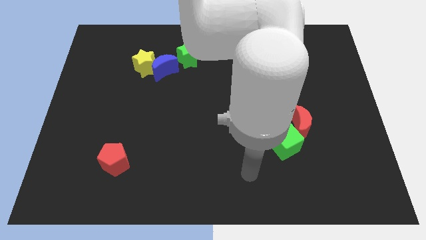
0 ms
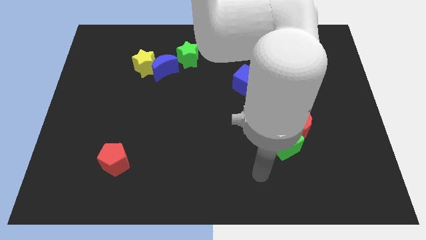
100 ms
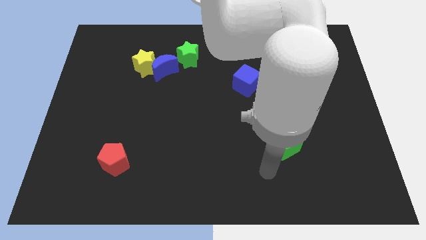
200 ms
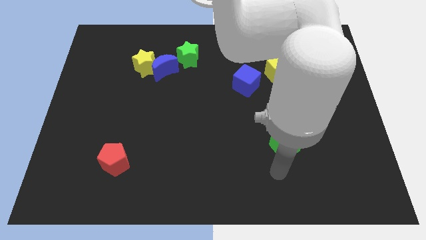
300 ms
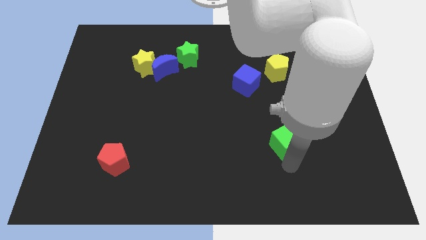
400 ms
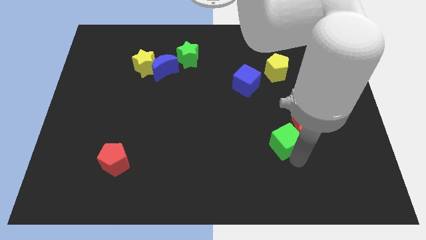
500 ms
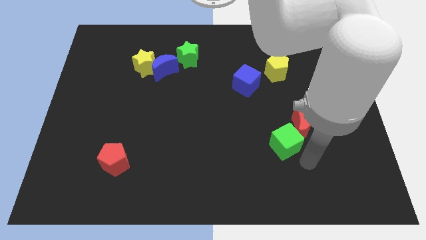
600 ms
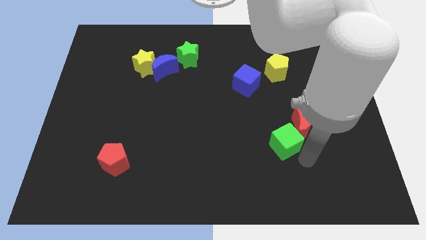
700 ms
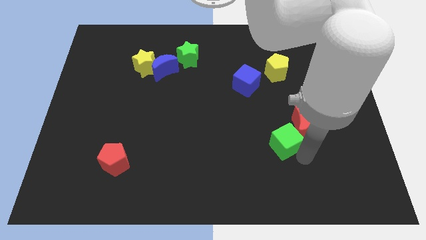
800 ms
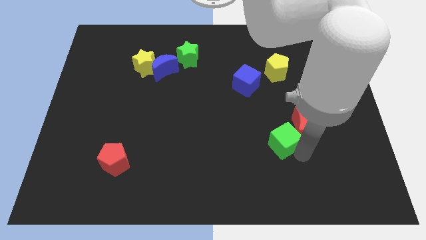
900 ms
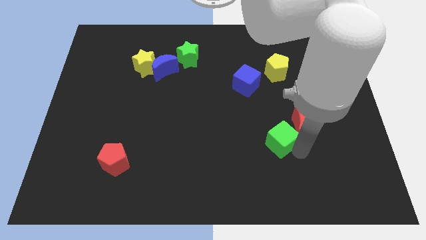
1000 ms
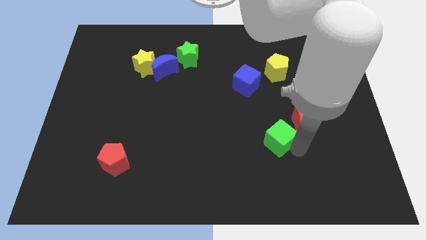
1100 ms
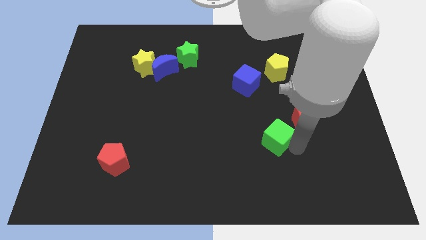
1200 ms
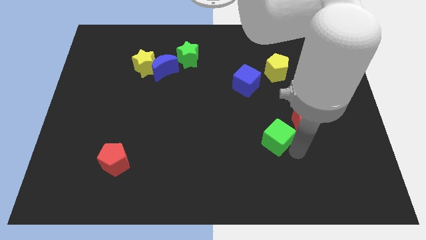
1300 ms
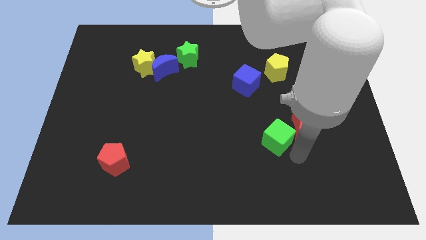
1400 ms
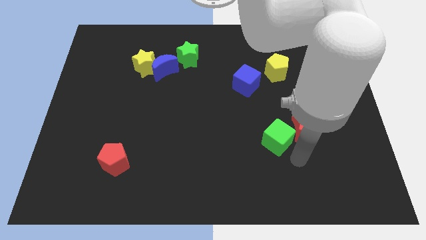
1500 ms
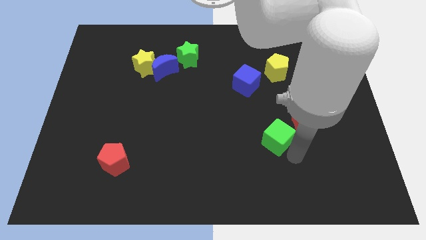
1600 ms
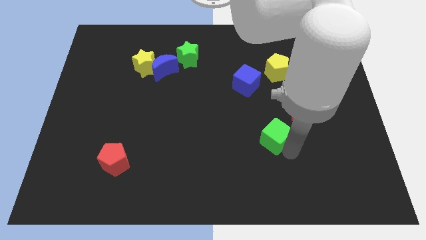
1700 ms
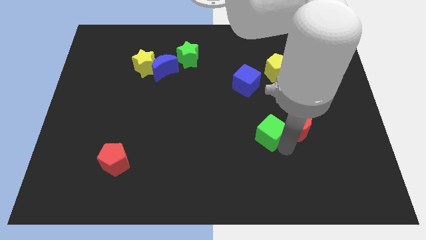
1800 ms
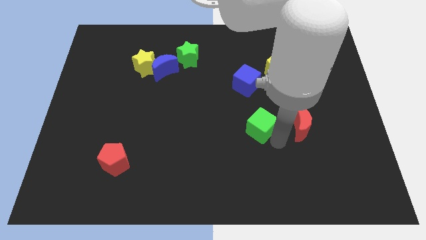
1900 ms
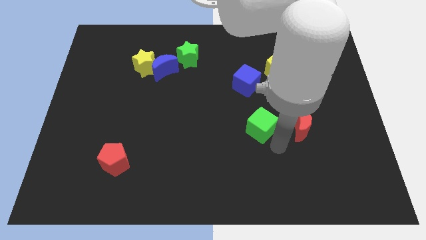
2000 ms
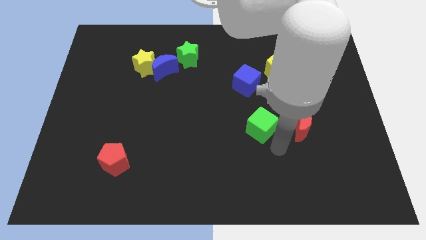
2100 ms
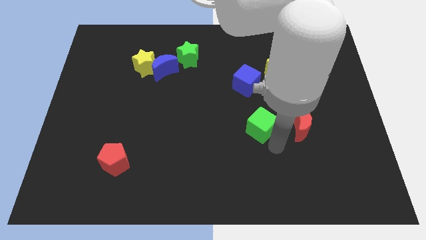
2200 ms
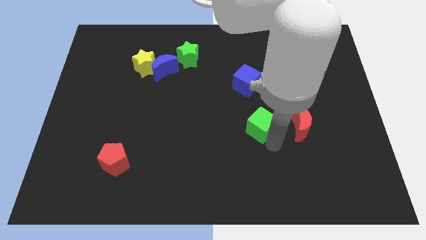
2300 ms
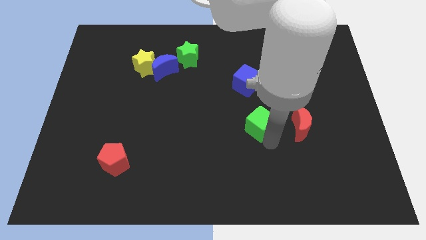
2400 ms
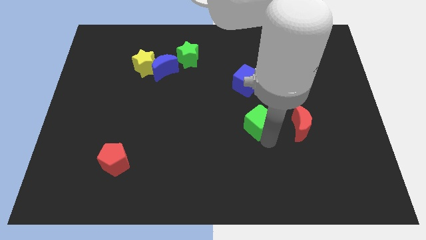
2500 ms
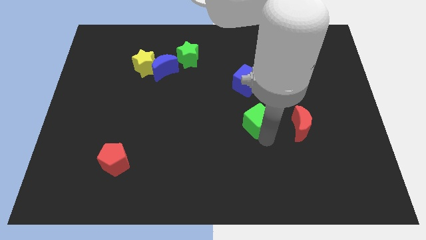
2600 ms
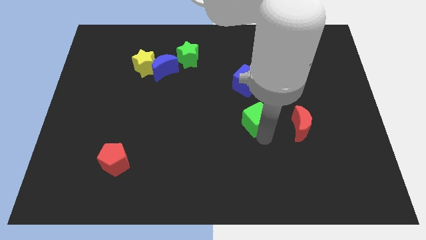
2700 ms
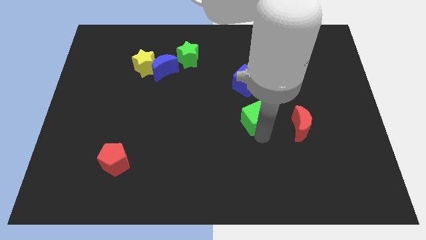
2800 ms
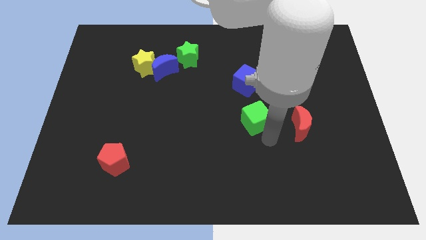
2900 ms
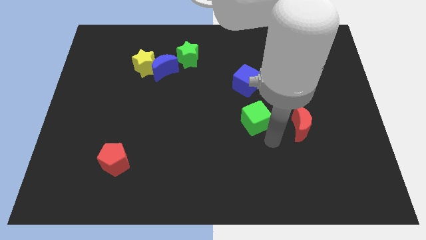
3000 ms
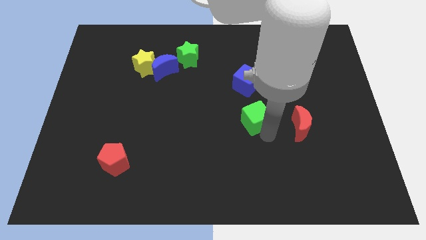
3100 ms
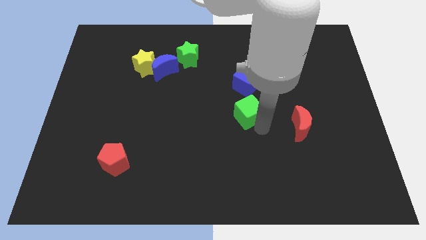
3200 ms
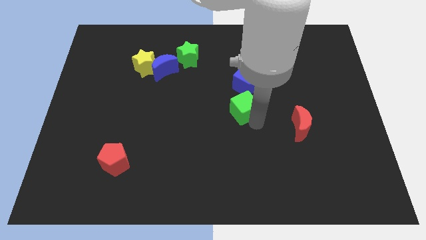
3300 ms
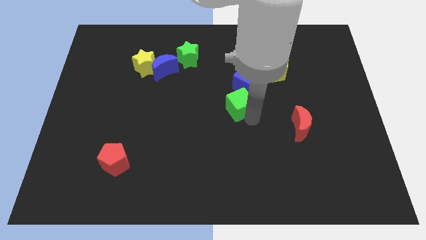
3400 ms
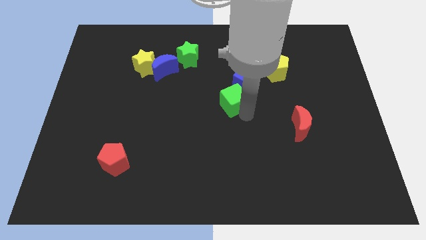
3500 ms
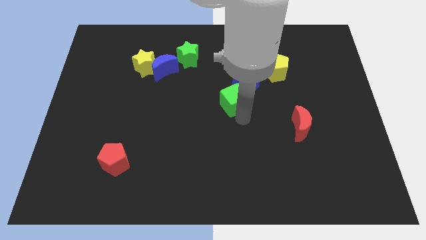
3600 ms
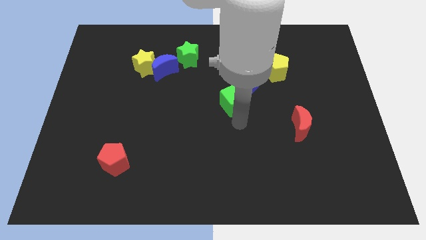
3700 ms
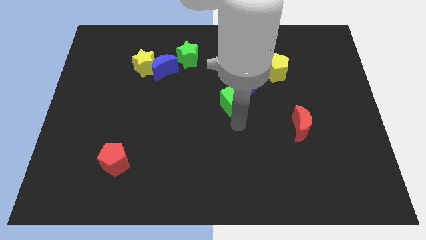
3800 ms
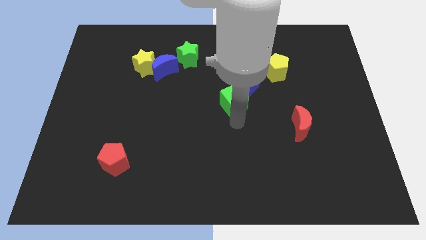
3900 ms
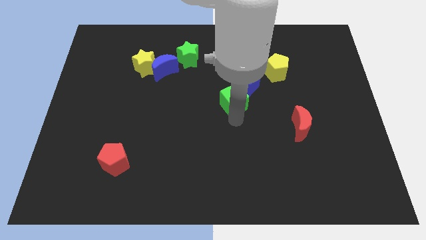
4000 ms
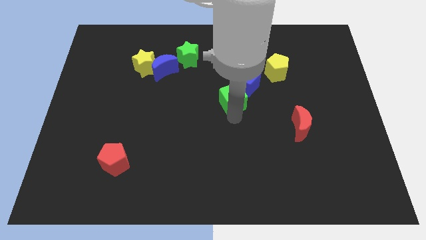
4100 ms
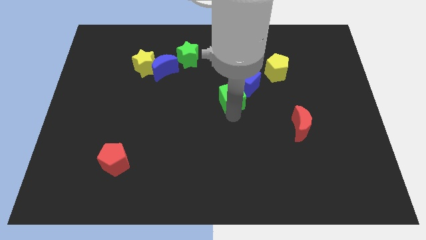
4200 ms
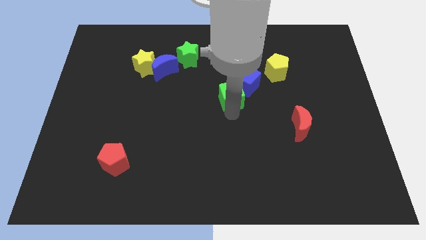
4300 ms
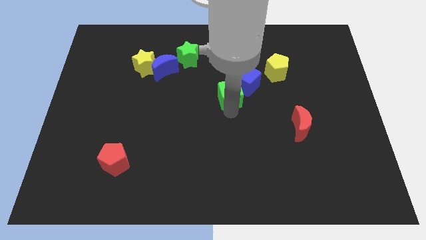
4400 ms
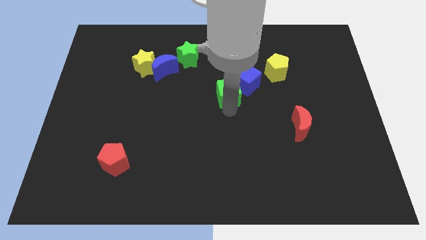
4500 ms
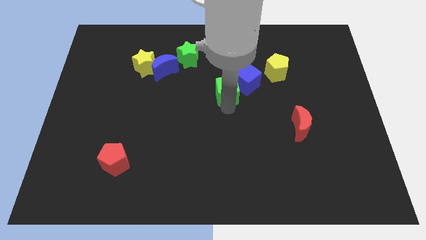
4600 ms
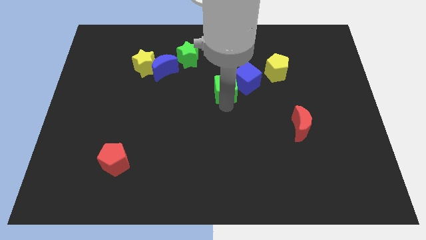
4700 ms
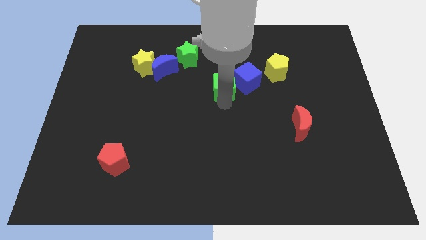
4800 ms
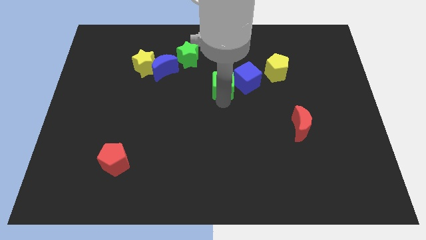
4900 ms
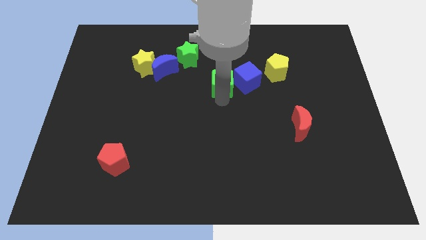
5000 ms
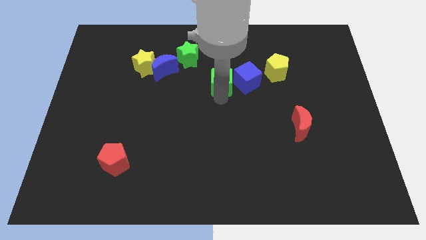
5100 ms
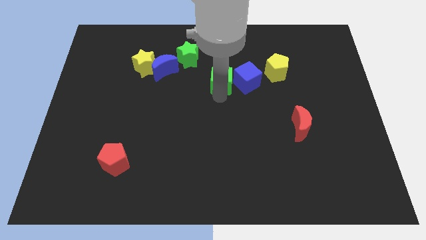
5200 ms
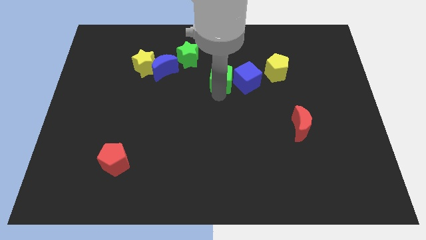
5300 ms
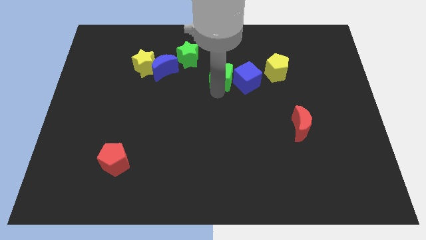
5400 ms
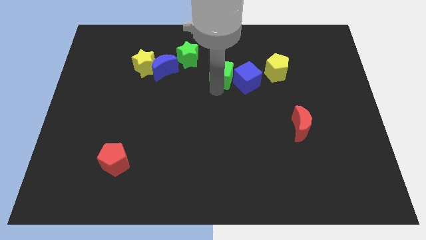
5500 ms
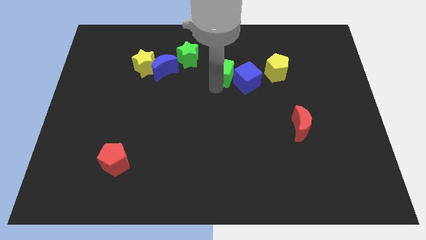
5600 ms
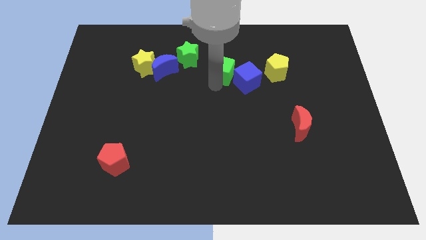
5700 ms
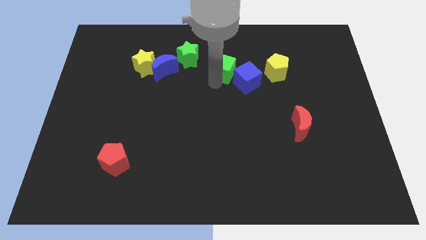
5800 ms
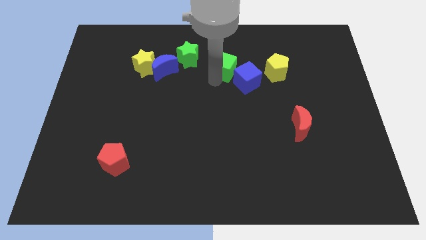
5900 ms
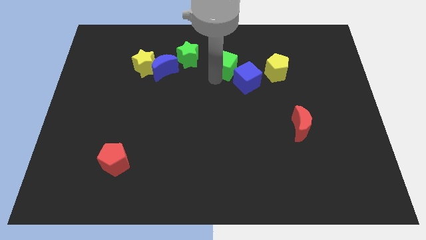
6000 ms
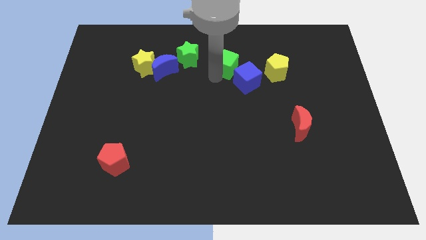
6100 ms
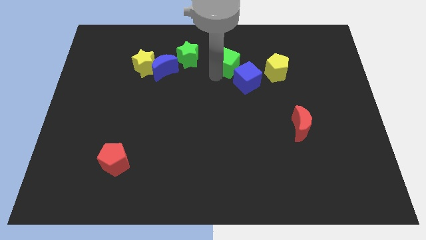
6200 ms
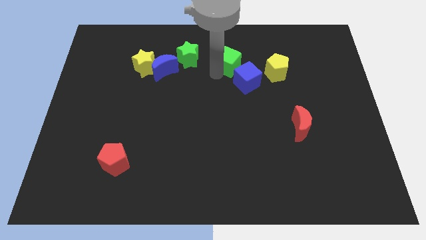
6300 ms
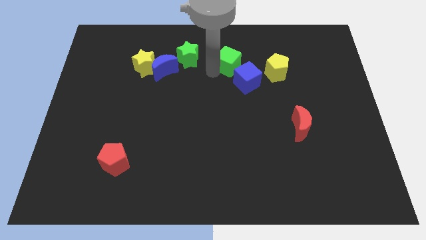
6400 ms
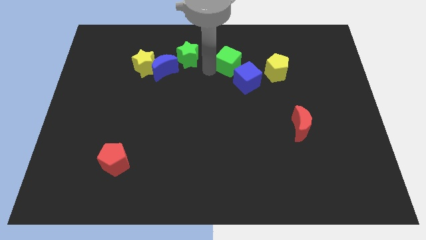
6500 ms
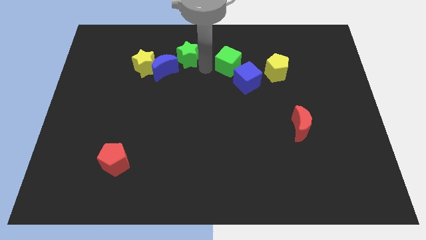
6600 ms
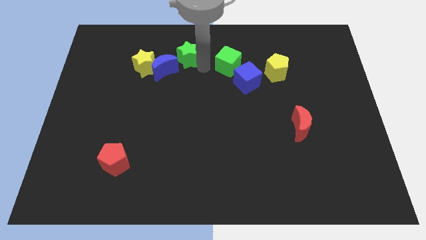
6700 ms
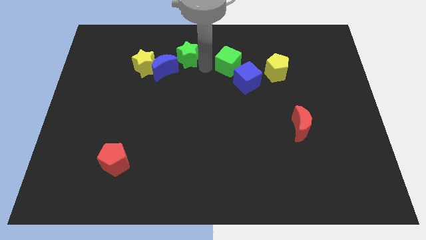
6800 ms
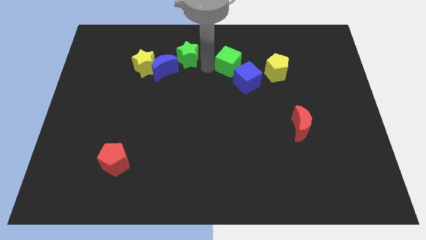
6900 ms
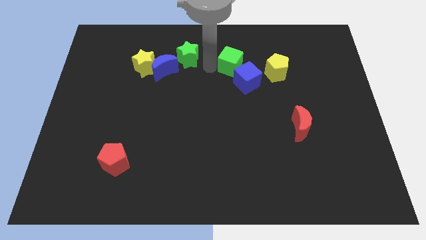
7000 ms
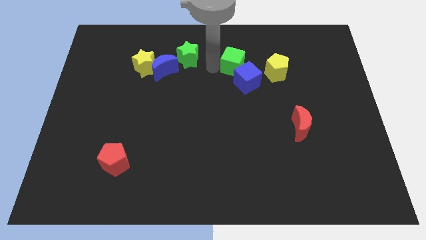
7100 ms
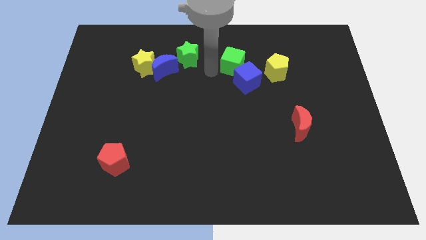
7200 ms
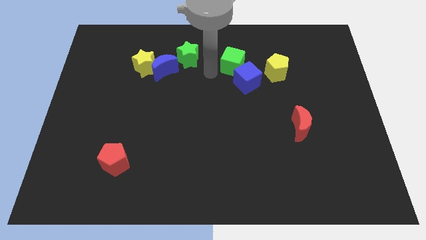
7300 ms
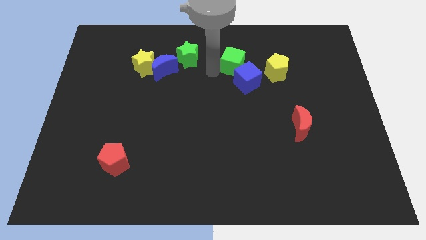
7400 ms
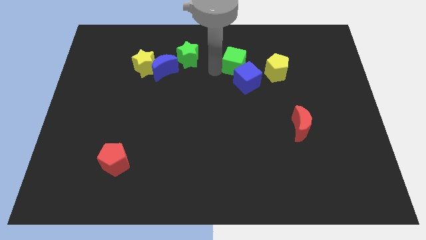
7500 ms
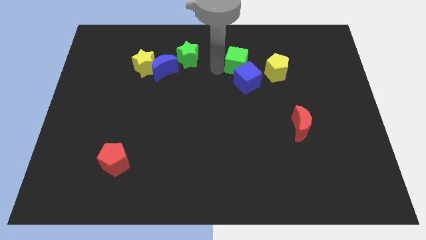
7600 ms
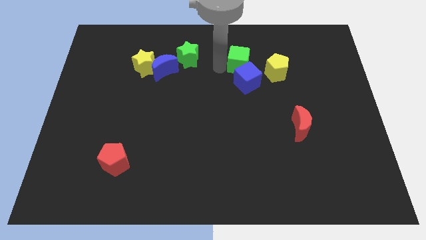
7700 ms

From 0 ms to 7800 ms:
slide the green cube diagonally up and to the left of the yellow pentagon
